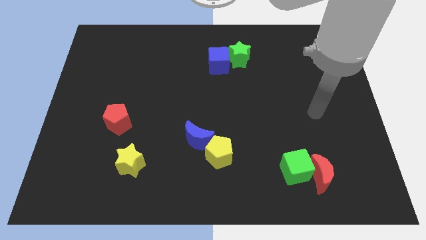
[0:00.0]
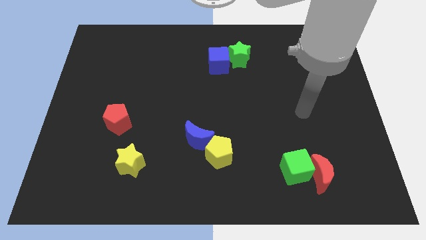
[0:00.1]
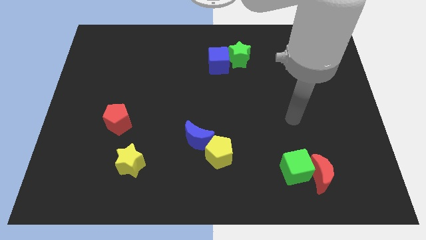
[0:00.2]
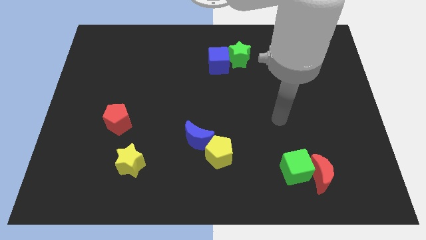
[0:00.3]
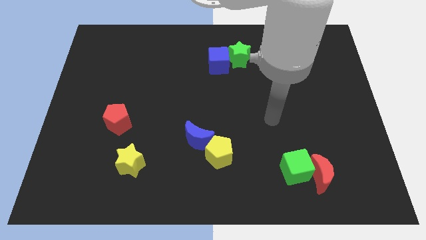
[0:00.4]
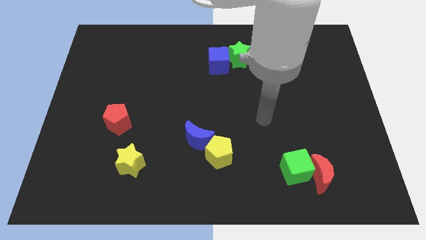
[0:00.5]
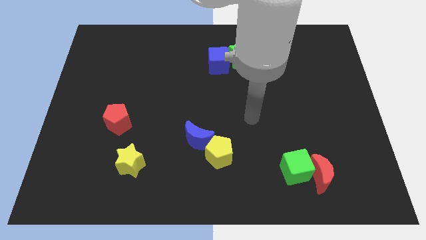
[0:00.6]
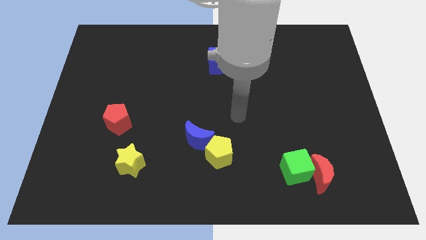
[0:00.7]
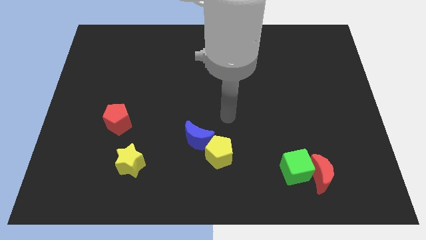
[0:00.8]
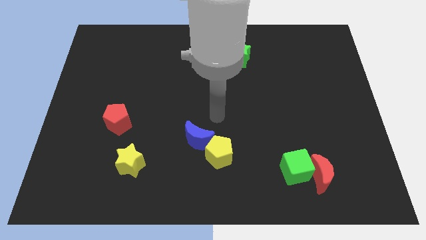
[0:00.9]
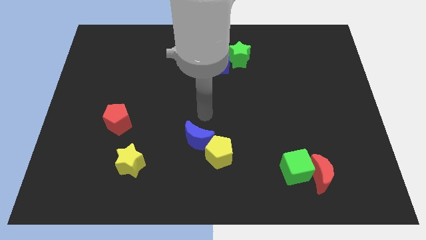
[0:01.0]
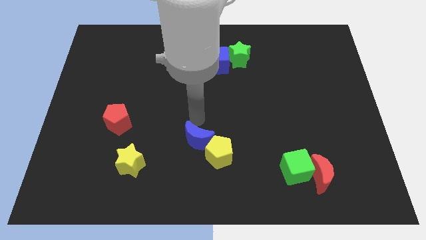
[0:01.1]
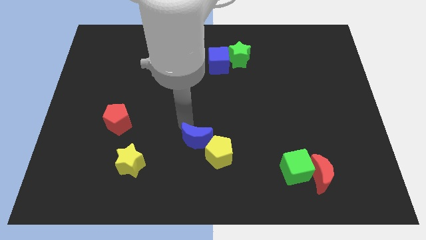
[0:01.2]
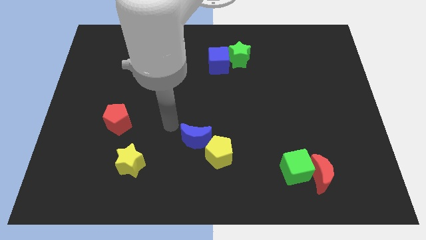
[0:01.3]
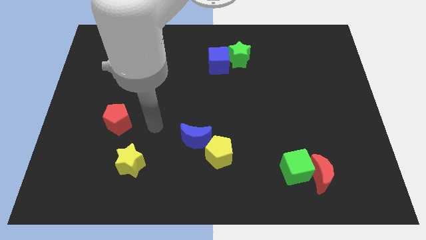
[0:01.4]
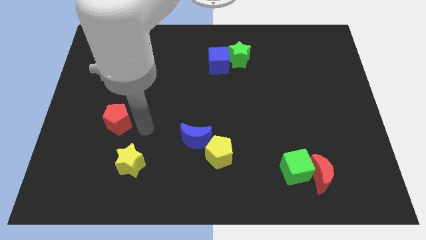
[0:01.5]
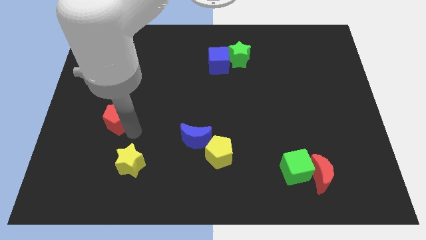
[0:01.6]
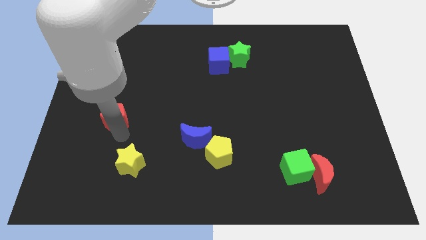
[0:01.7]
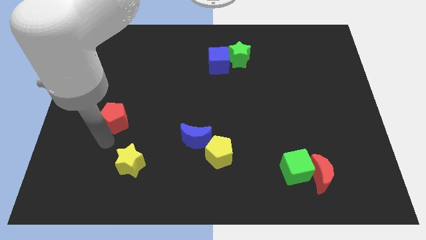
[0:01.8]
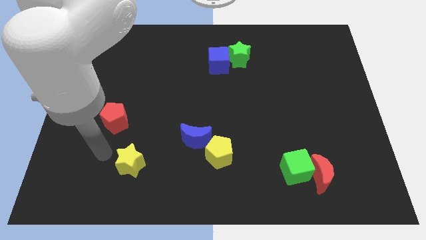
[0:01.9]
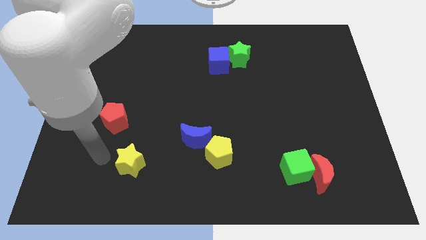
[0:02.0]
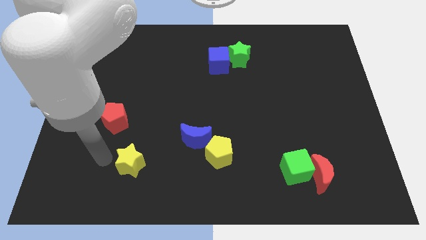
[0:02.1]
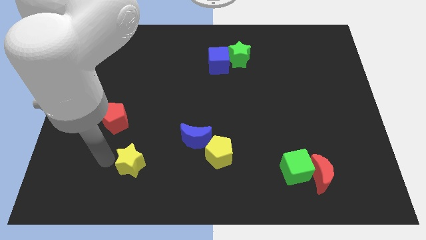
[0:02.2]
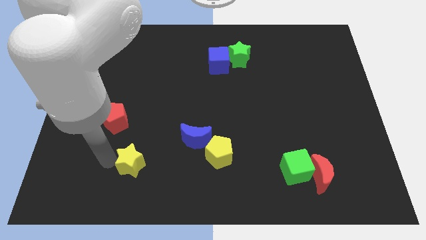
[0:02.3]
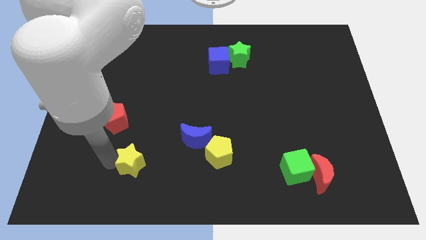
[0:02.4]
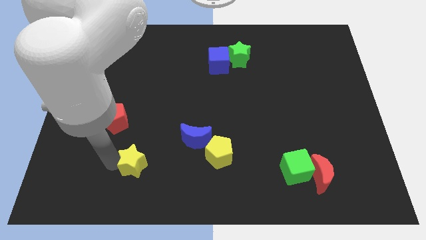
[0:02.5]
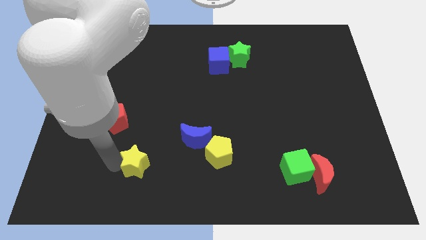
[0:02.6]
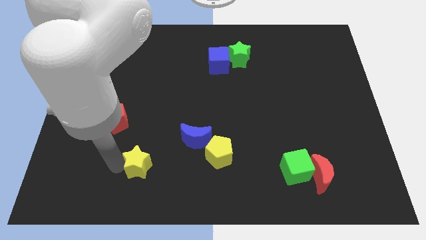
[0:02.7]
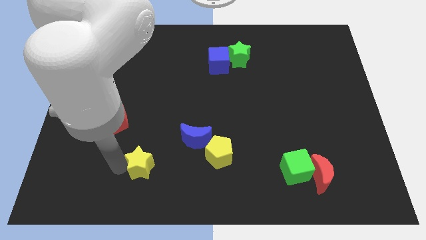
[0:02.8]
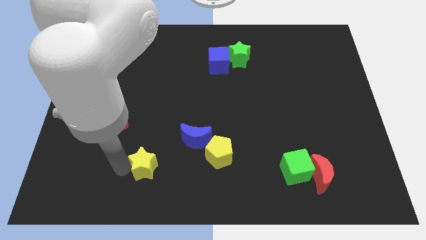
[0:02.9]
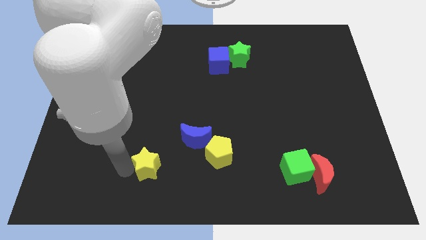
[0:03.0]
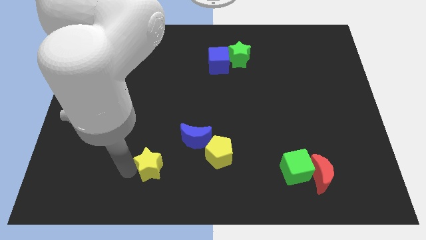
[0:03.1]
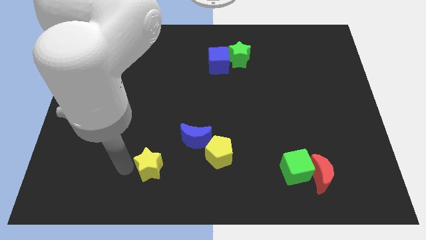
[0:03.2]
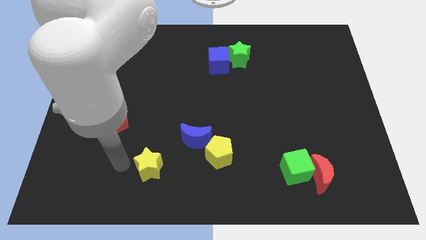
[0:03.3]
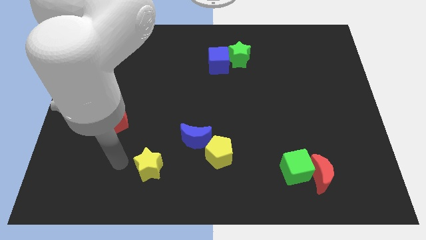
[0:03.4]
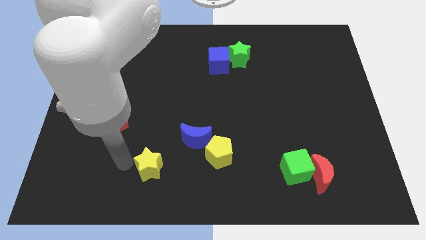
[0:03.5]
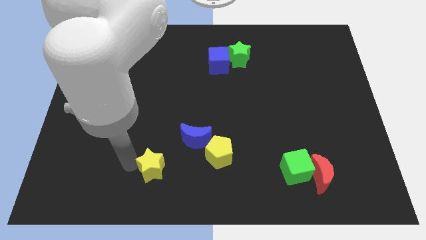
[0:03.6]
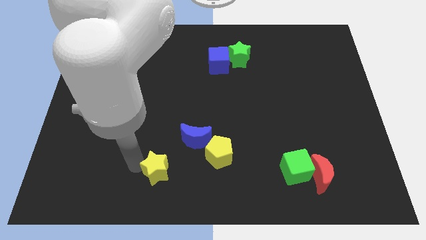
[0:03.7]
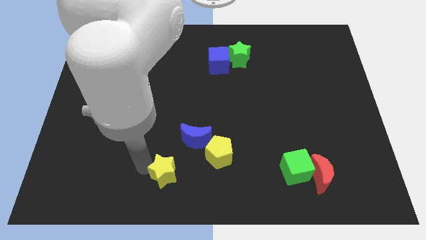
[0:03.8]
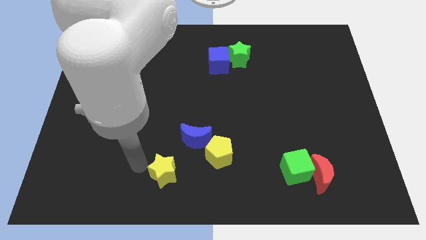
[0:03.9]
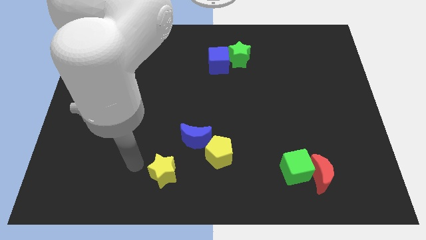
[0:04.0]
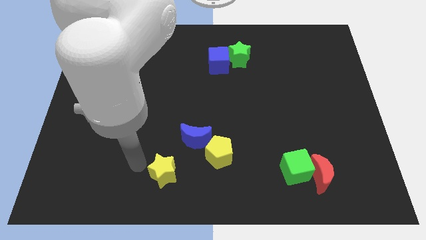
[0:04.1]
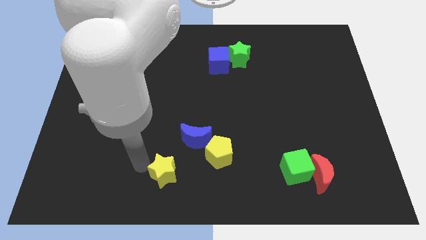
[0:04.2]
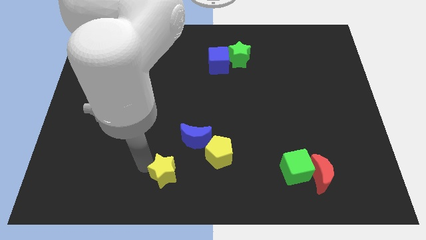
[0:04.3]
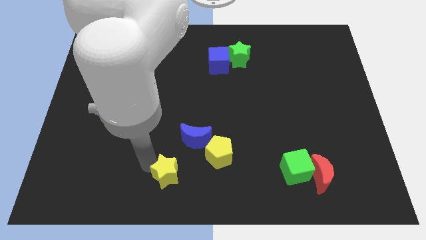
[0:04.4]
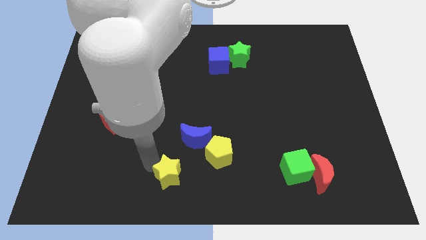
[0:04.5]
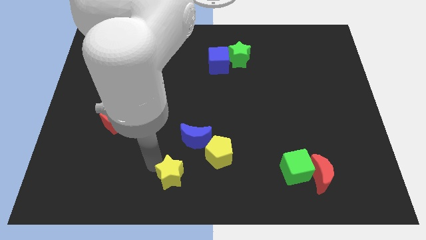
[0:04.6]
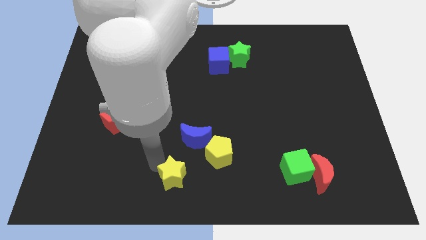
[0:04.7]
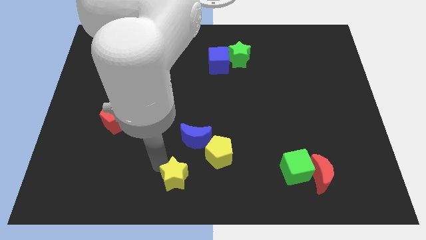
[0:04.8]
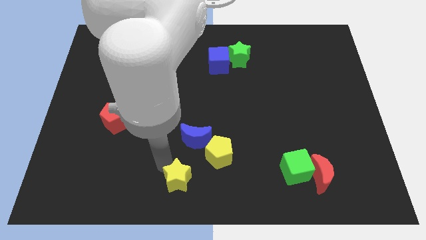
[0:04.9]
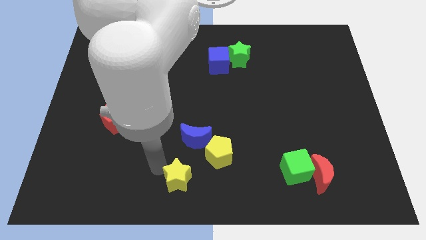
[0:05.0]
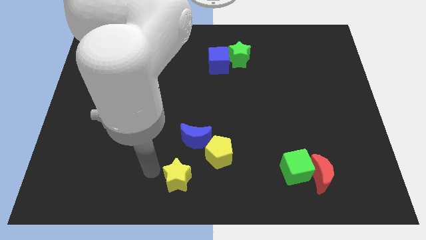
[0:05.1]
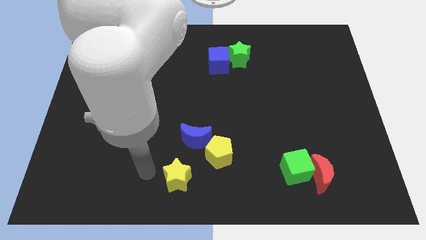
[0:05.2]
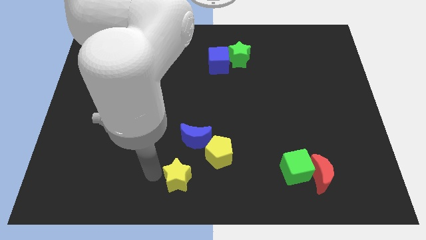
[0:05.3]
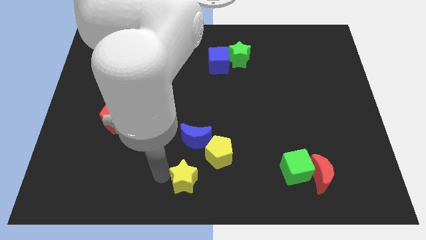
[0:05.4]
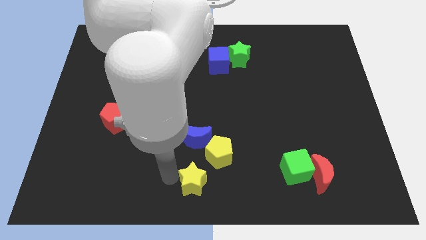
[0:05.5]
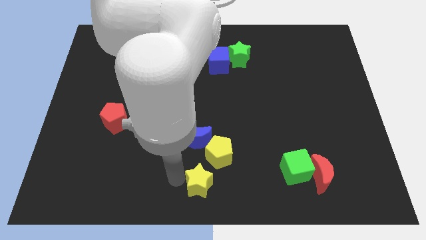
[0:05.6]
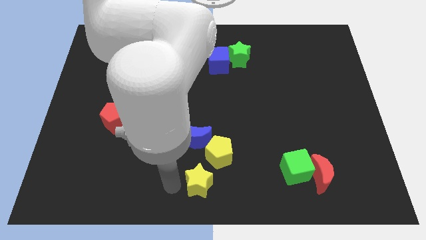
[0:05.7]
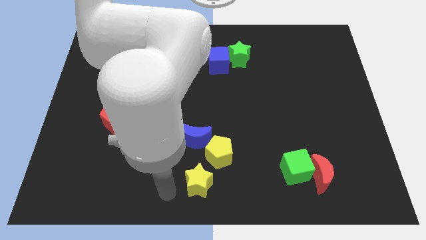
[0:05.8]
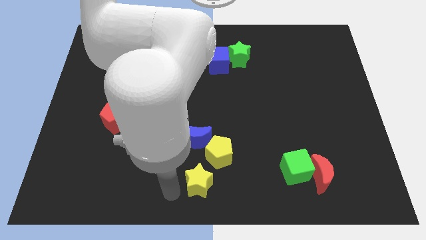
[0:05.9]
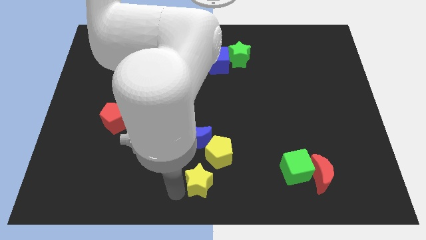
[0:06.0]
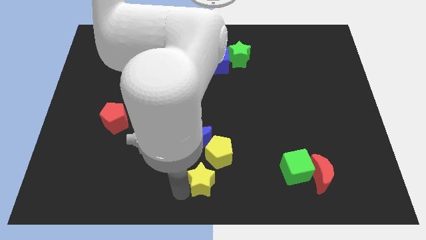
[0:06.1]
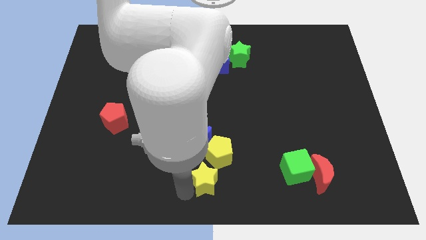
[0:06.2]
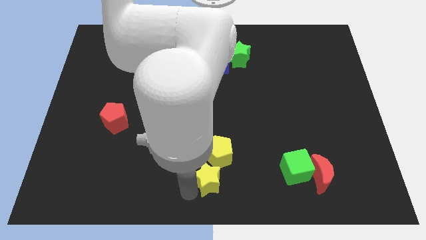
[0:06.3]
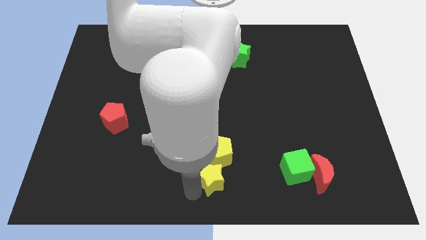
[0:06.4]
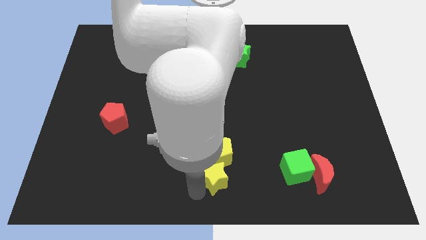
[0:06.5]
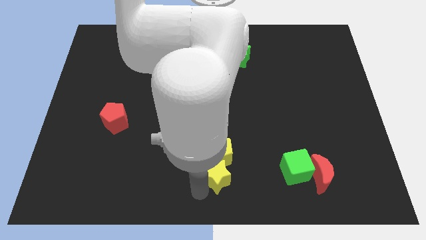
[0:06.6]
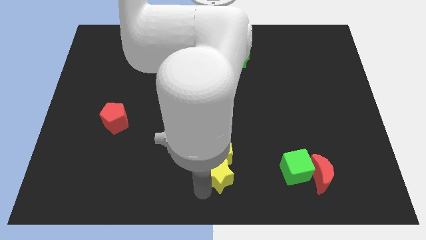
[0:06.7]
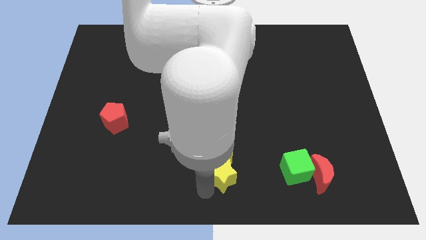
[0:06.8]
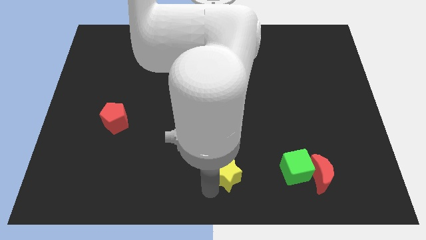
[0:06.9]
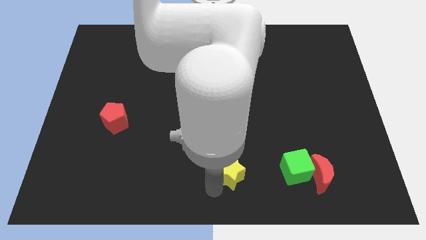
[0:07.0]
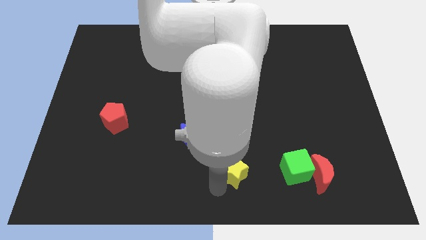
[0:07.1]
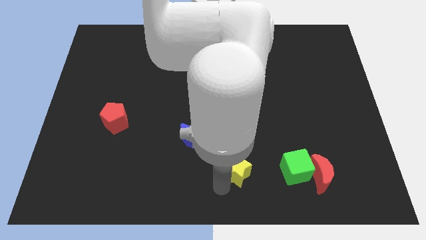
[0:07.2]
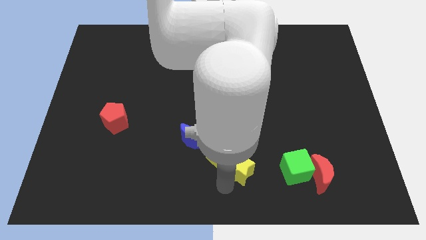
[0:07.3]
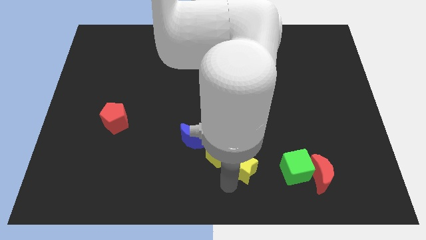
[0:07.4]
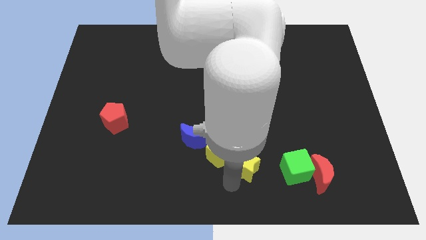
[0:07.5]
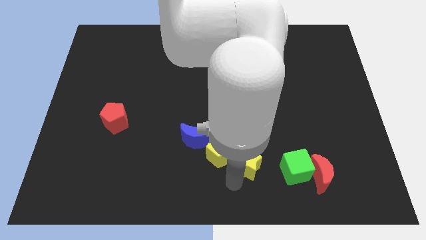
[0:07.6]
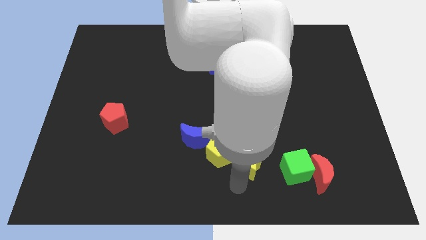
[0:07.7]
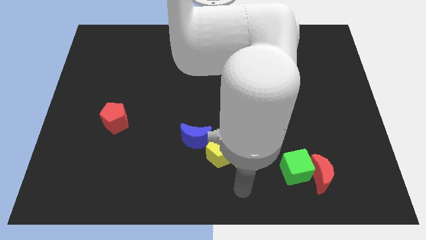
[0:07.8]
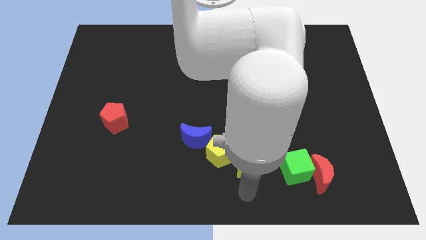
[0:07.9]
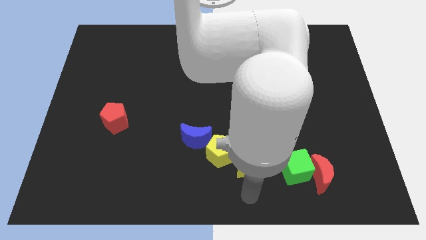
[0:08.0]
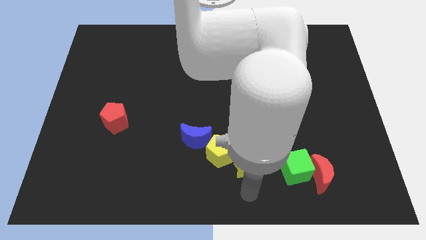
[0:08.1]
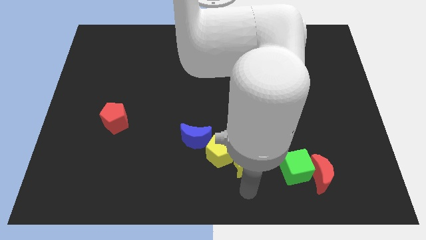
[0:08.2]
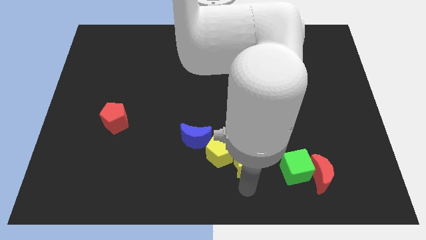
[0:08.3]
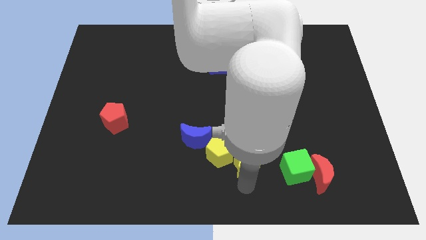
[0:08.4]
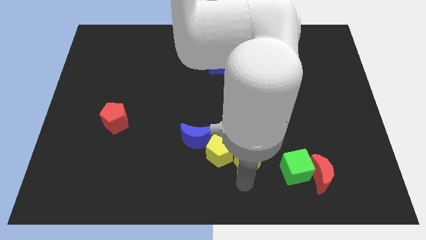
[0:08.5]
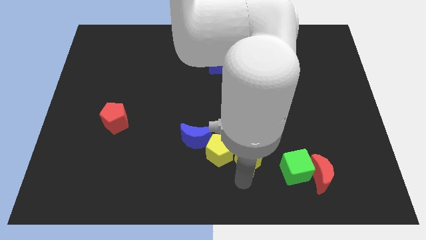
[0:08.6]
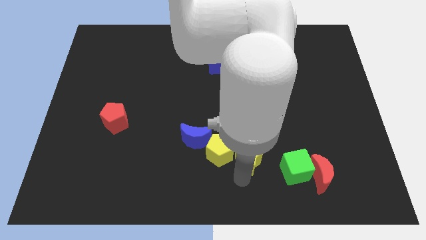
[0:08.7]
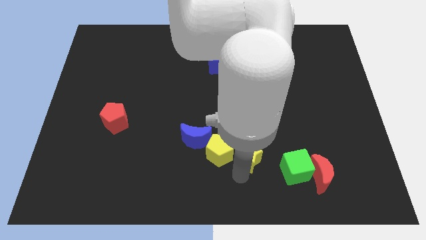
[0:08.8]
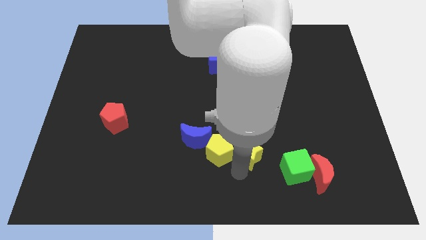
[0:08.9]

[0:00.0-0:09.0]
put the yellow star diagonally up and to the left of the green cube
